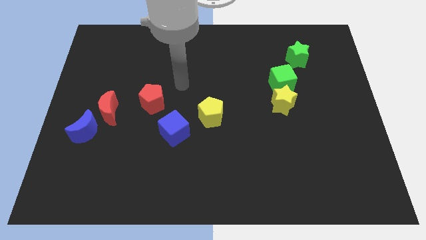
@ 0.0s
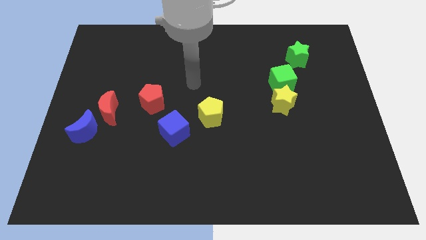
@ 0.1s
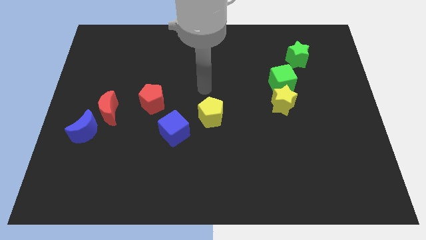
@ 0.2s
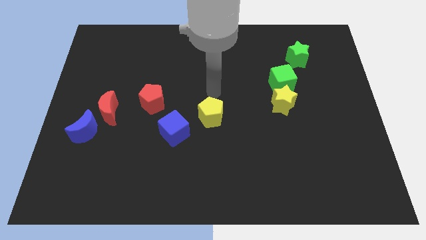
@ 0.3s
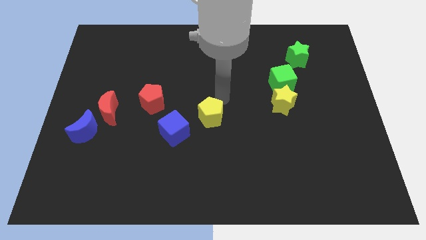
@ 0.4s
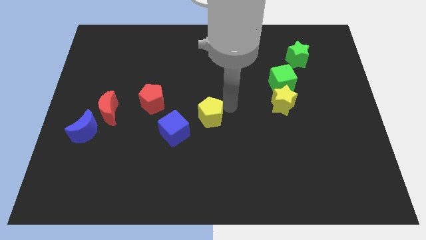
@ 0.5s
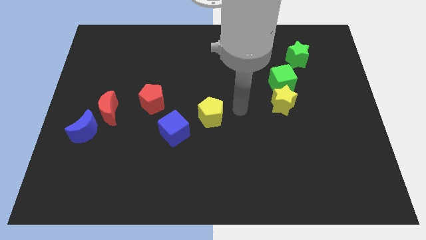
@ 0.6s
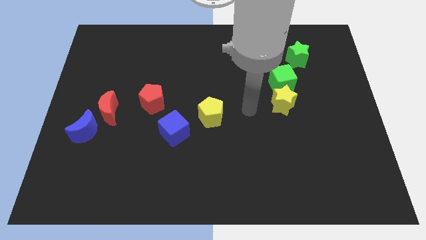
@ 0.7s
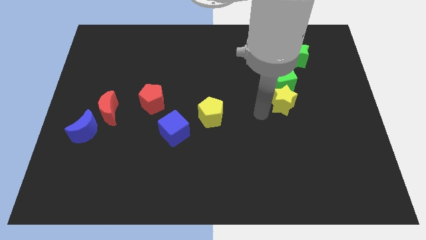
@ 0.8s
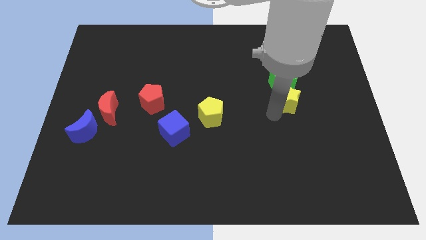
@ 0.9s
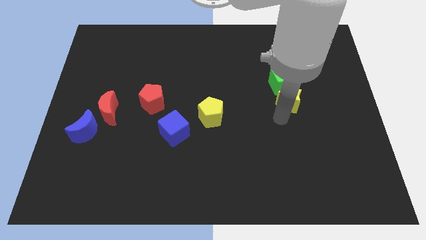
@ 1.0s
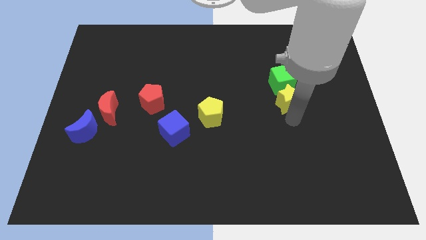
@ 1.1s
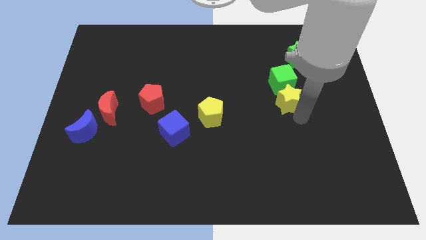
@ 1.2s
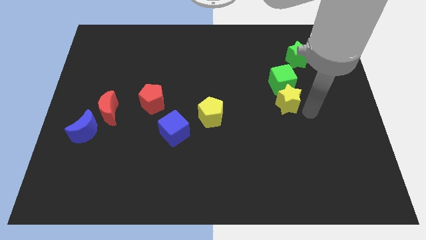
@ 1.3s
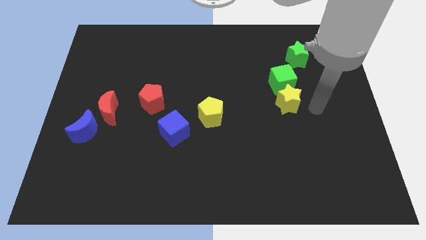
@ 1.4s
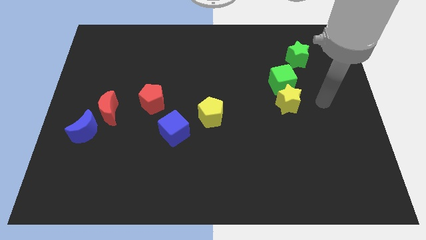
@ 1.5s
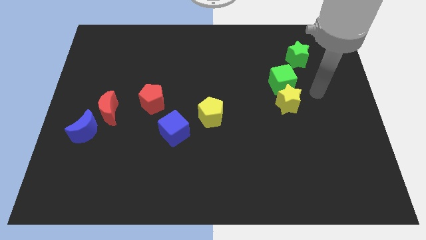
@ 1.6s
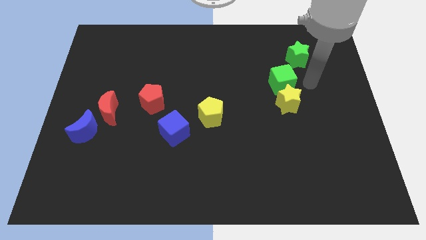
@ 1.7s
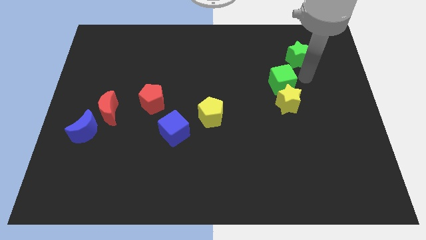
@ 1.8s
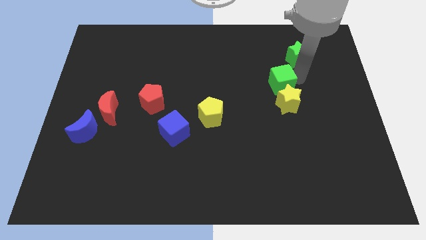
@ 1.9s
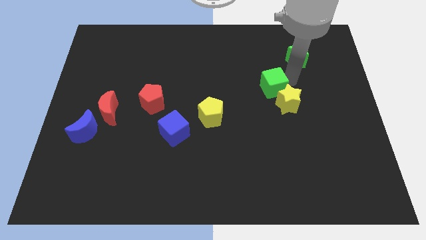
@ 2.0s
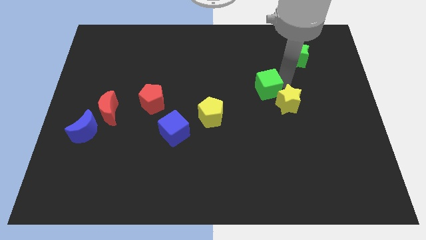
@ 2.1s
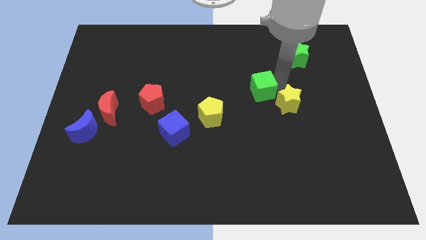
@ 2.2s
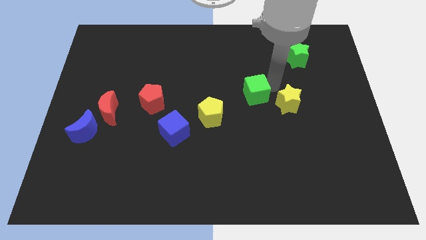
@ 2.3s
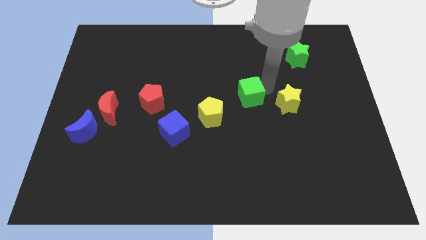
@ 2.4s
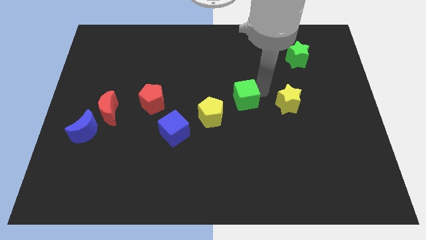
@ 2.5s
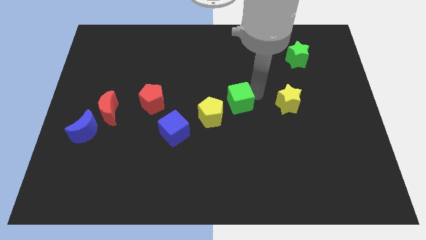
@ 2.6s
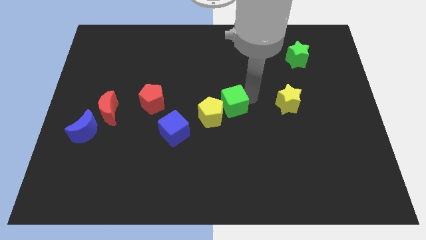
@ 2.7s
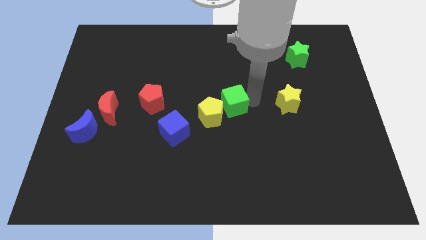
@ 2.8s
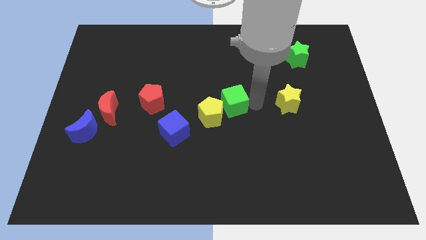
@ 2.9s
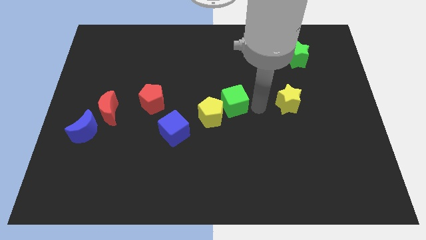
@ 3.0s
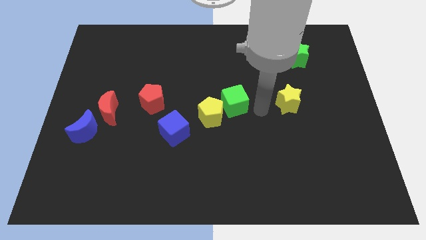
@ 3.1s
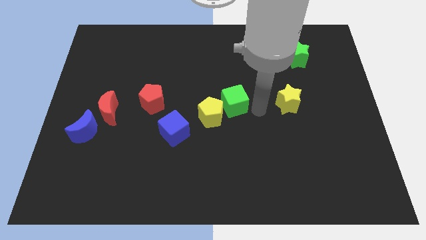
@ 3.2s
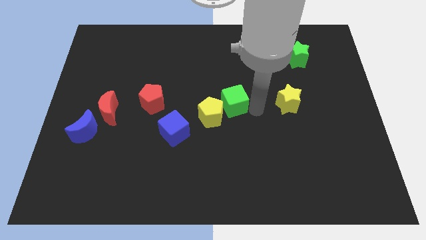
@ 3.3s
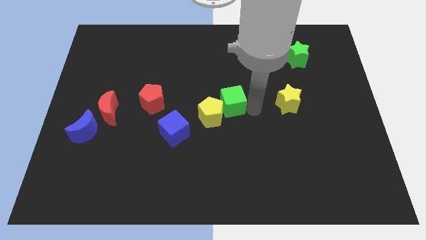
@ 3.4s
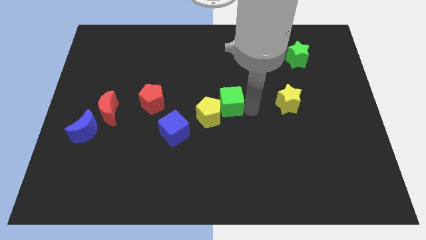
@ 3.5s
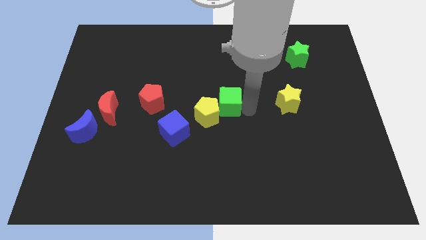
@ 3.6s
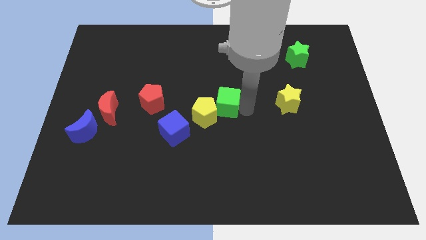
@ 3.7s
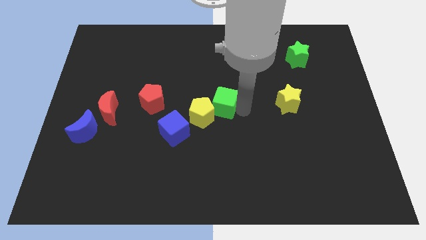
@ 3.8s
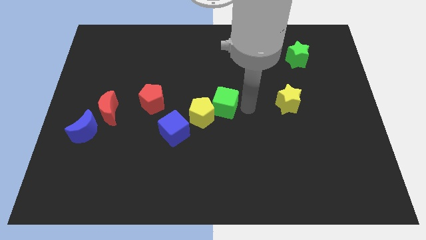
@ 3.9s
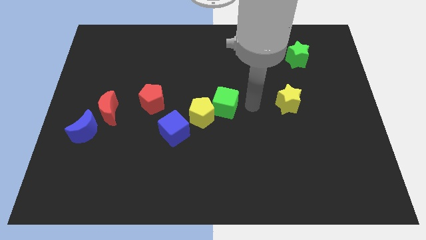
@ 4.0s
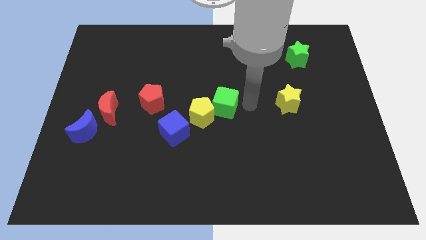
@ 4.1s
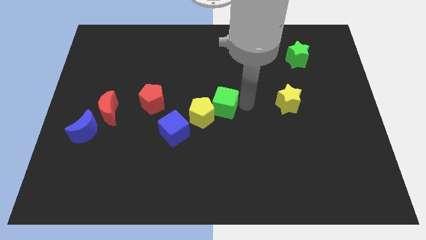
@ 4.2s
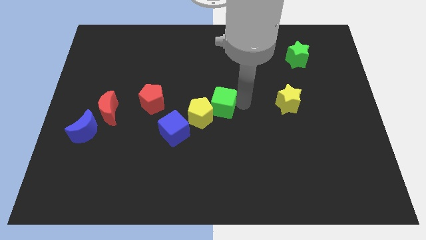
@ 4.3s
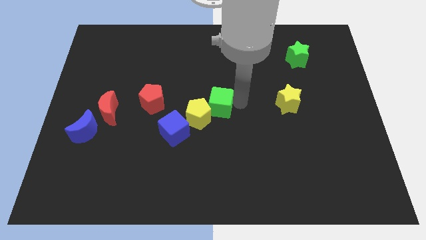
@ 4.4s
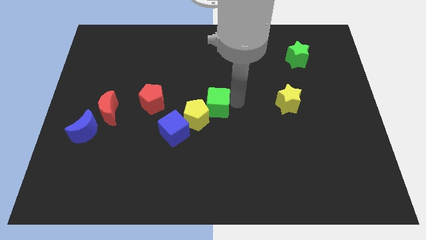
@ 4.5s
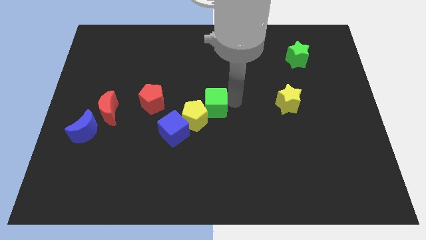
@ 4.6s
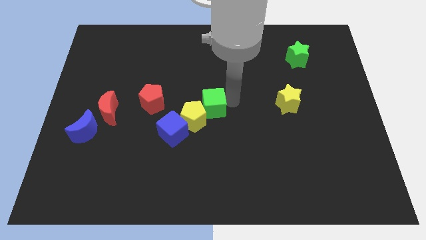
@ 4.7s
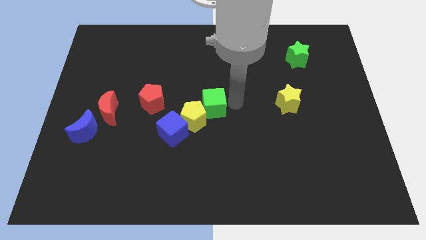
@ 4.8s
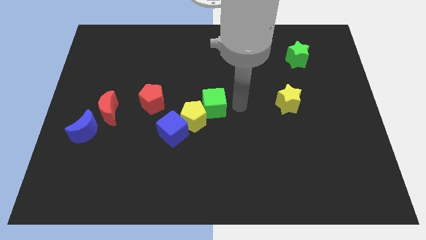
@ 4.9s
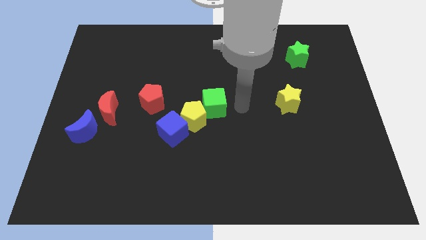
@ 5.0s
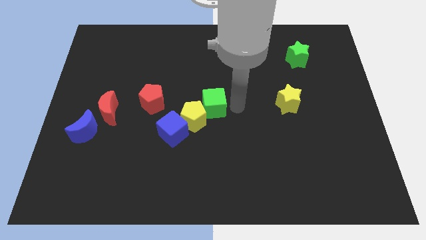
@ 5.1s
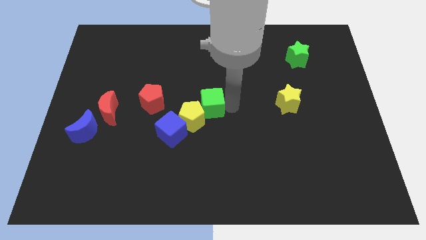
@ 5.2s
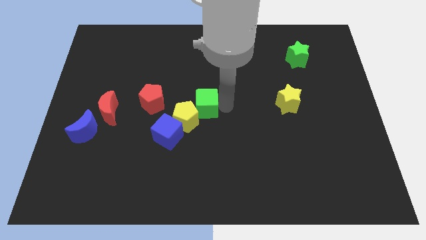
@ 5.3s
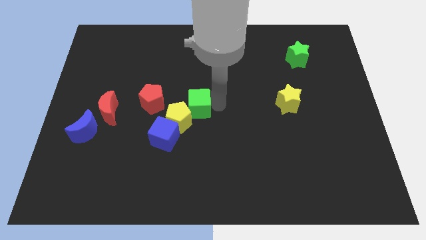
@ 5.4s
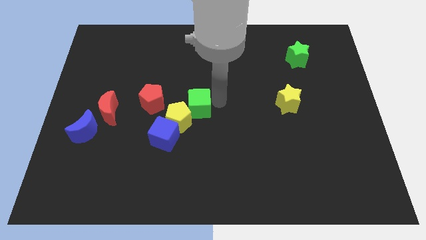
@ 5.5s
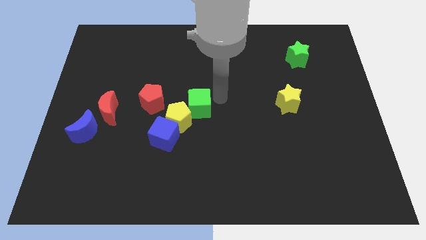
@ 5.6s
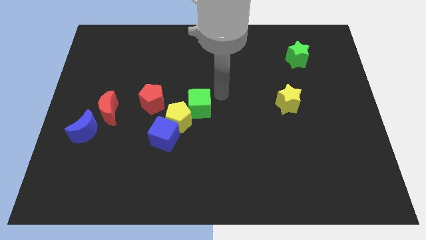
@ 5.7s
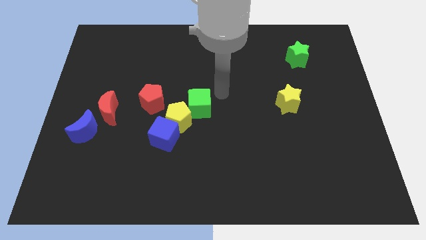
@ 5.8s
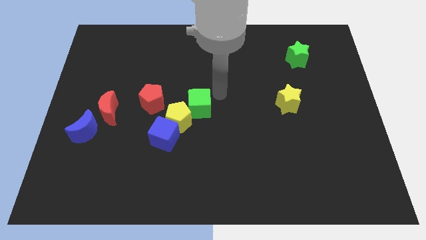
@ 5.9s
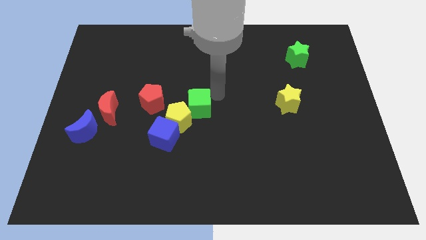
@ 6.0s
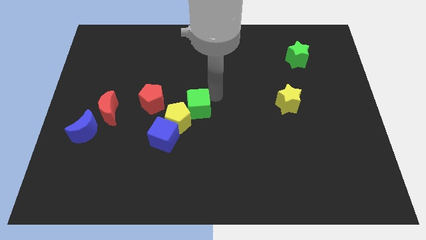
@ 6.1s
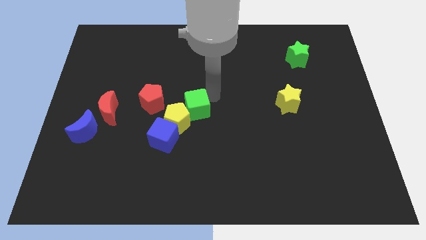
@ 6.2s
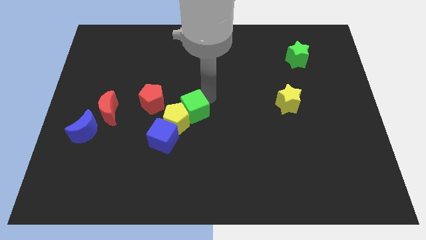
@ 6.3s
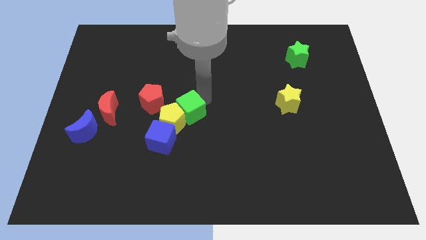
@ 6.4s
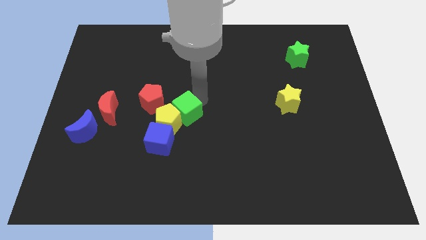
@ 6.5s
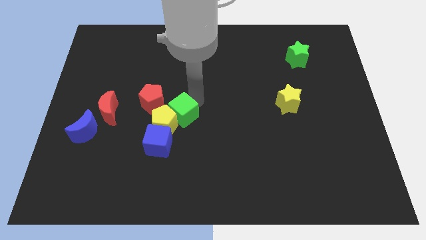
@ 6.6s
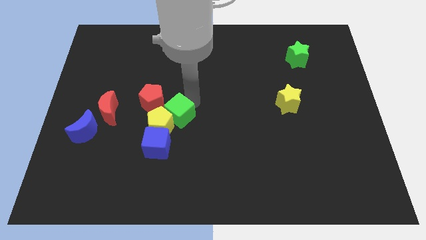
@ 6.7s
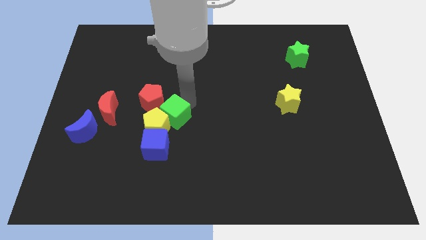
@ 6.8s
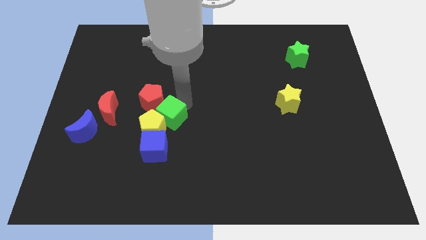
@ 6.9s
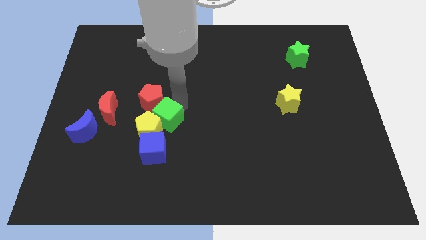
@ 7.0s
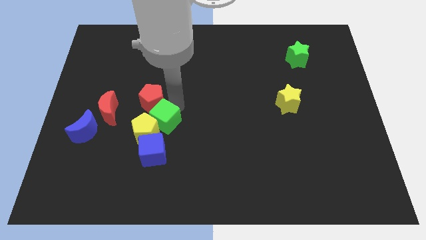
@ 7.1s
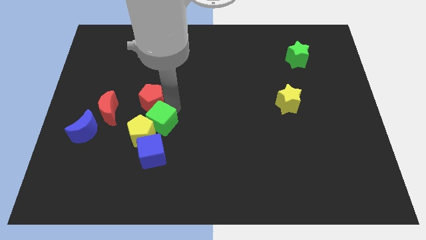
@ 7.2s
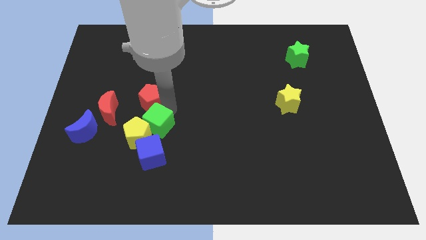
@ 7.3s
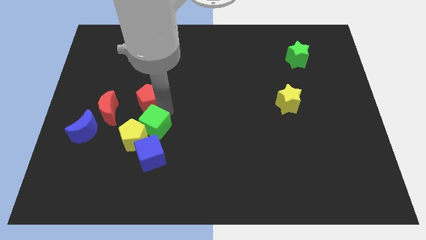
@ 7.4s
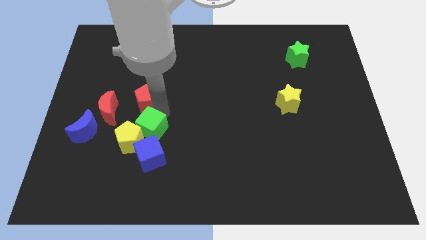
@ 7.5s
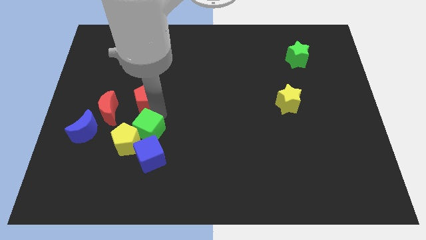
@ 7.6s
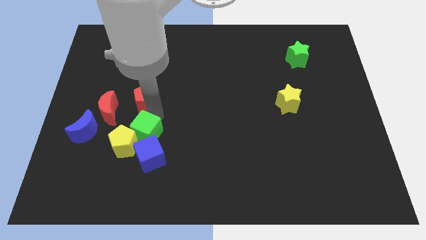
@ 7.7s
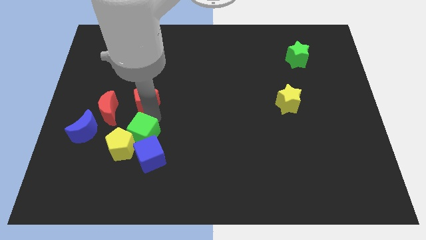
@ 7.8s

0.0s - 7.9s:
put the green cube next to the blue cube
